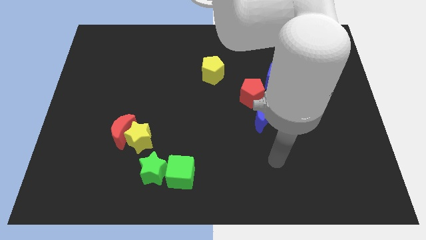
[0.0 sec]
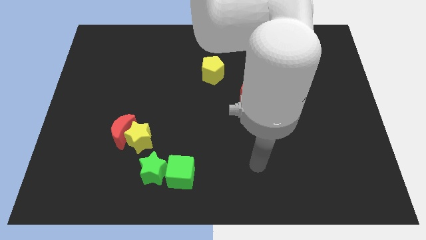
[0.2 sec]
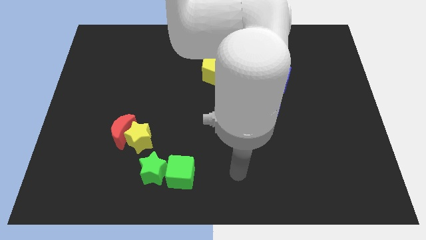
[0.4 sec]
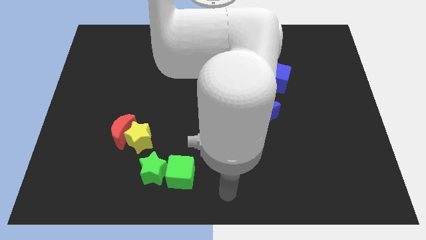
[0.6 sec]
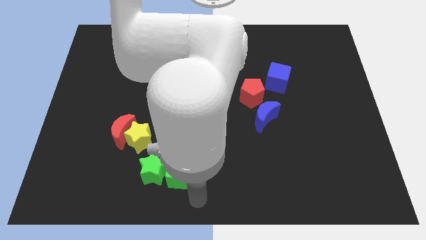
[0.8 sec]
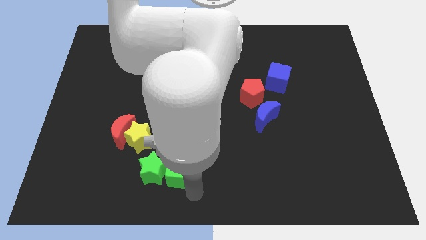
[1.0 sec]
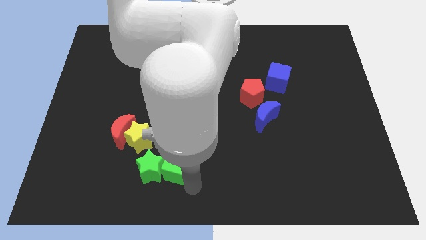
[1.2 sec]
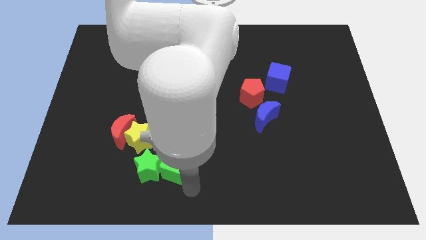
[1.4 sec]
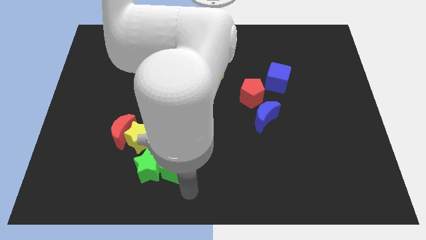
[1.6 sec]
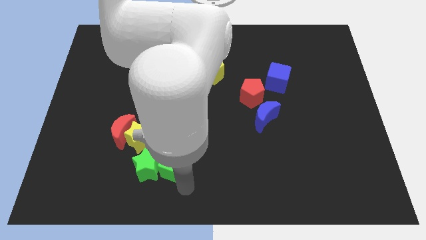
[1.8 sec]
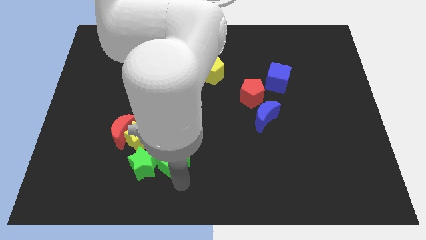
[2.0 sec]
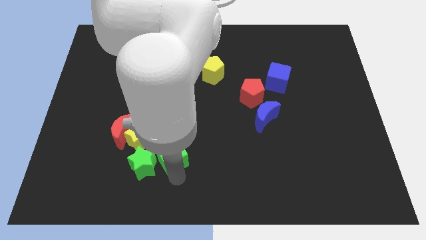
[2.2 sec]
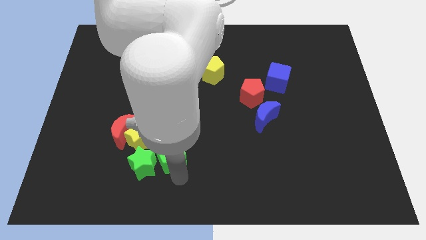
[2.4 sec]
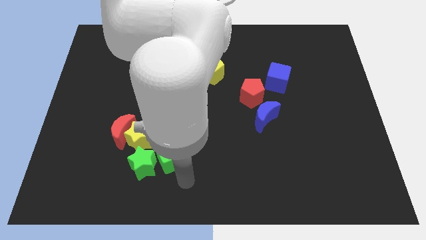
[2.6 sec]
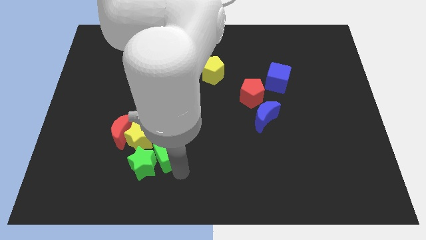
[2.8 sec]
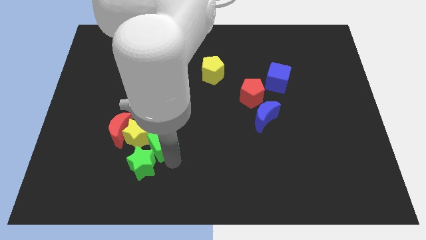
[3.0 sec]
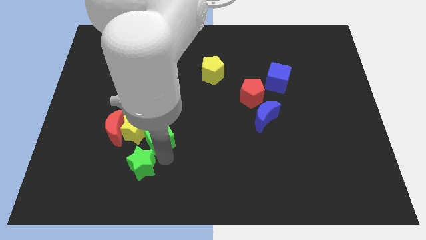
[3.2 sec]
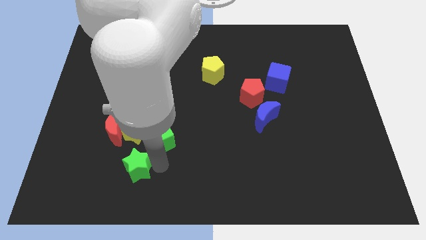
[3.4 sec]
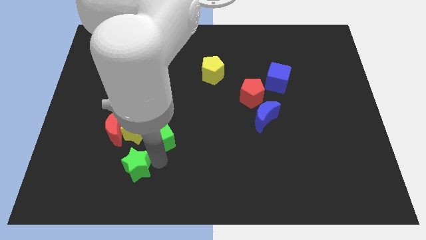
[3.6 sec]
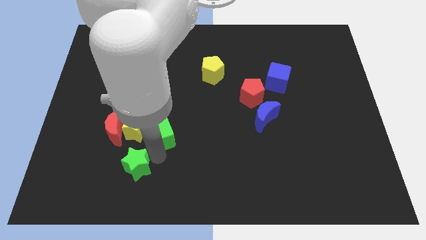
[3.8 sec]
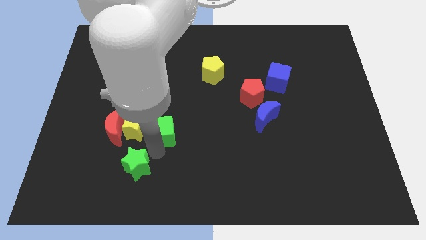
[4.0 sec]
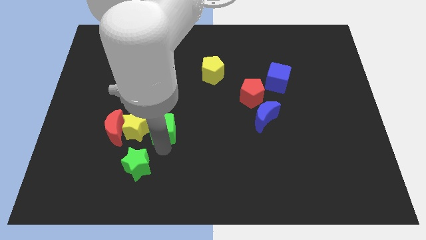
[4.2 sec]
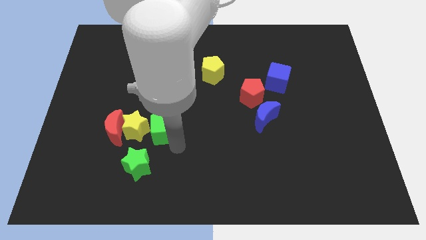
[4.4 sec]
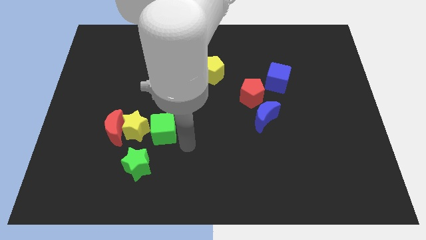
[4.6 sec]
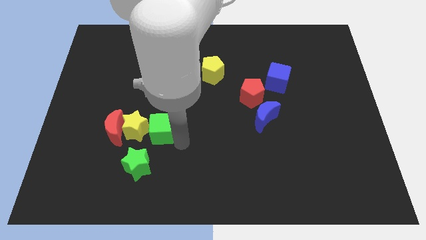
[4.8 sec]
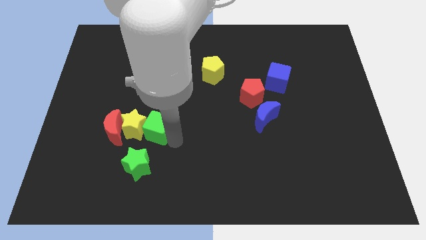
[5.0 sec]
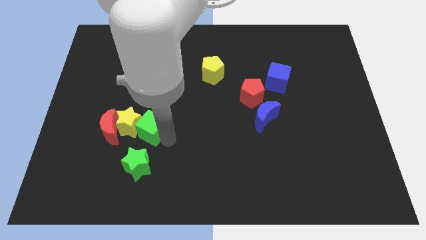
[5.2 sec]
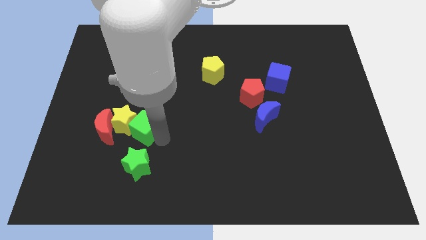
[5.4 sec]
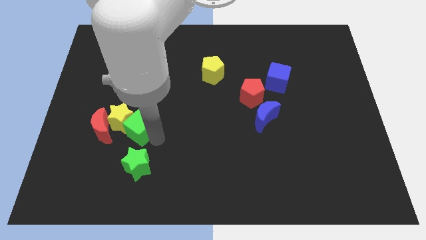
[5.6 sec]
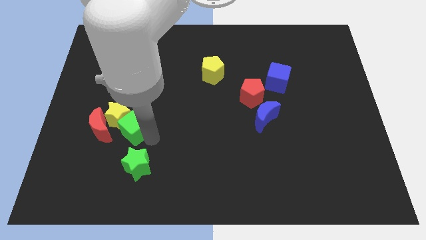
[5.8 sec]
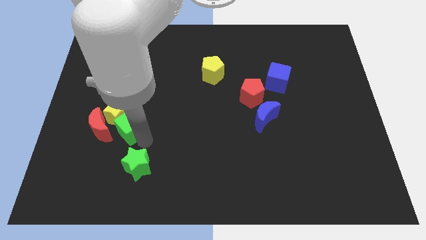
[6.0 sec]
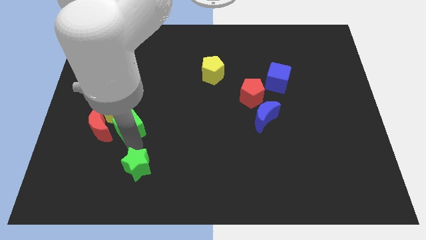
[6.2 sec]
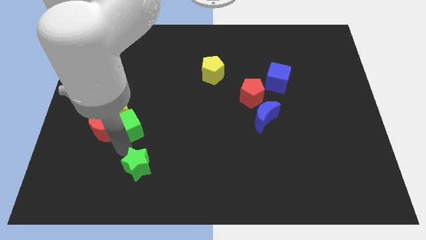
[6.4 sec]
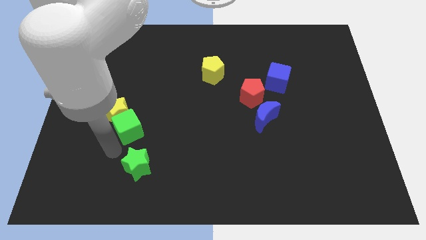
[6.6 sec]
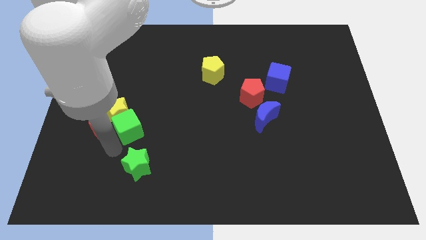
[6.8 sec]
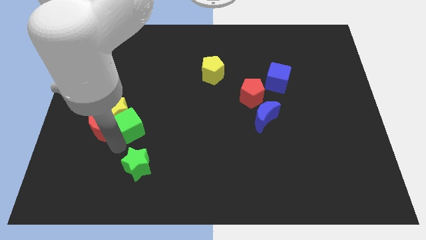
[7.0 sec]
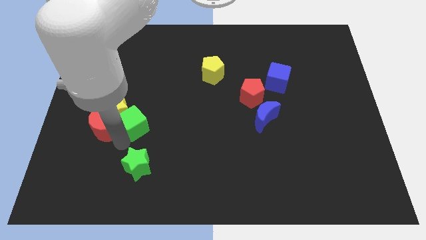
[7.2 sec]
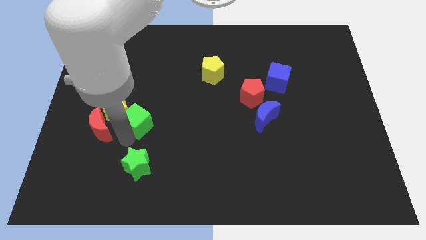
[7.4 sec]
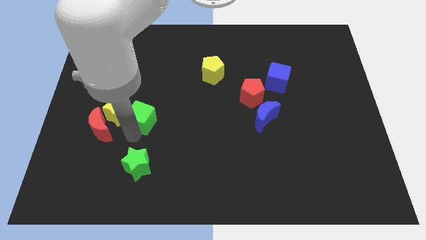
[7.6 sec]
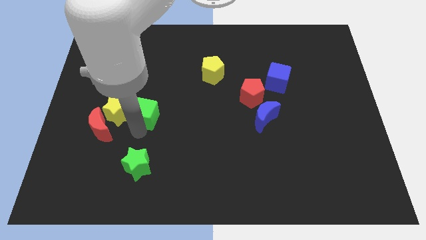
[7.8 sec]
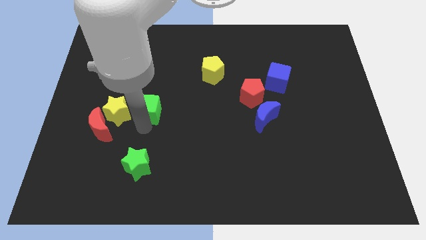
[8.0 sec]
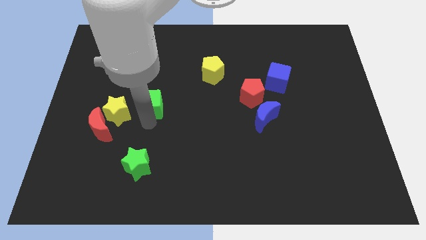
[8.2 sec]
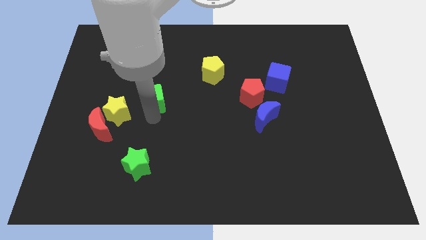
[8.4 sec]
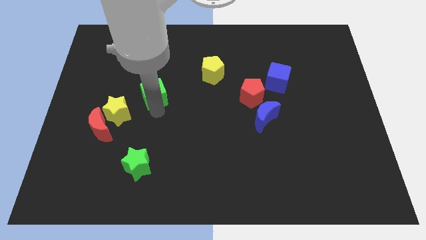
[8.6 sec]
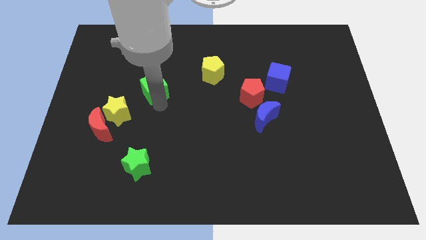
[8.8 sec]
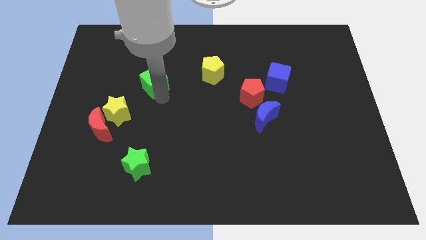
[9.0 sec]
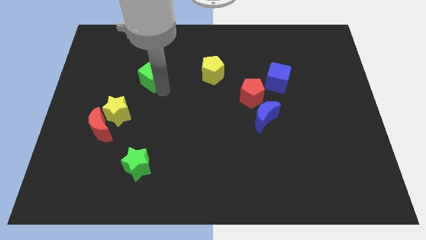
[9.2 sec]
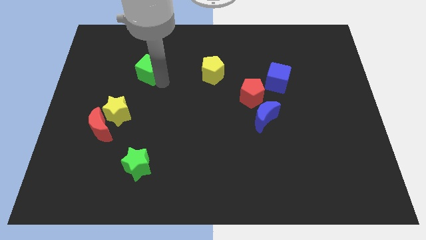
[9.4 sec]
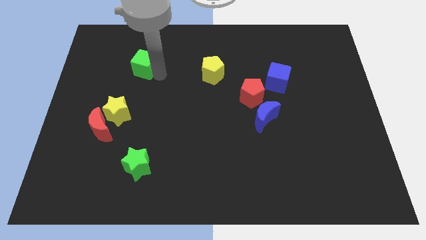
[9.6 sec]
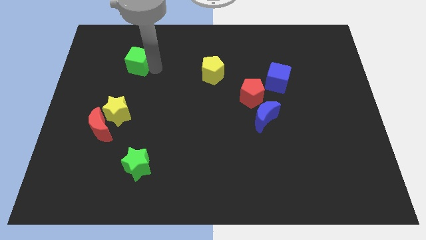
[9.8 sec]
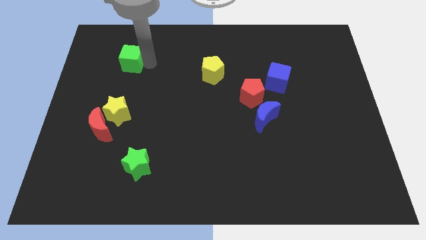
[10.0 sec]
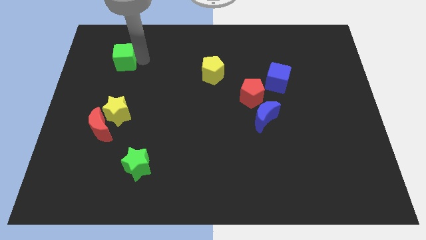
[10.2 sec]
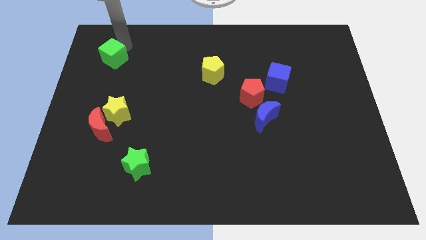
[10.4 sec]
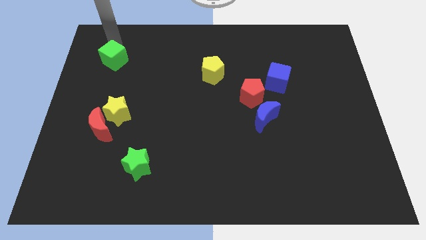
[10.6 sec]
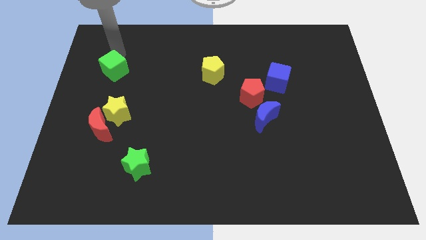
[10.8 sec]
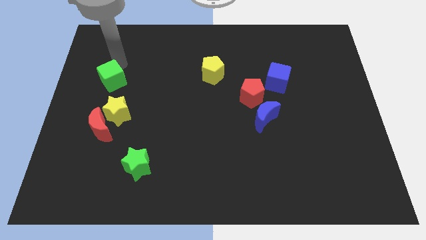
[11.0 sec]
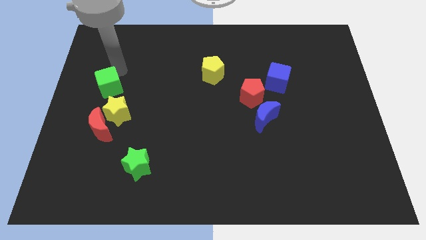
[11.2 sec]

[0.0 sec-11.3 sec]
slide the green cube to the center left

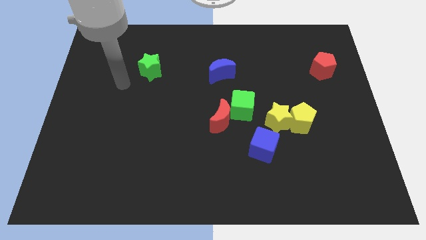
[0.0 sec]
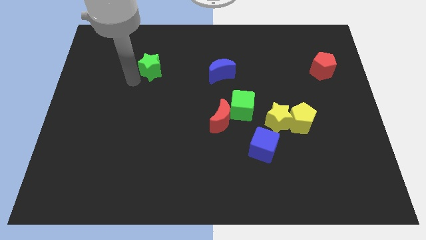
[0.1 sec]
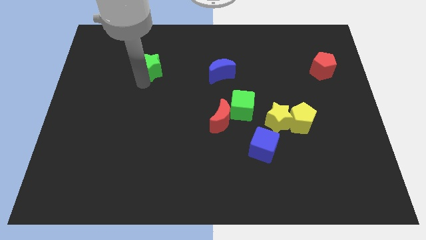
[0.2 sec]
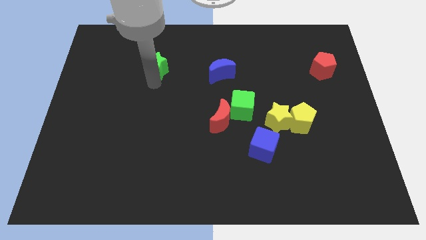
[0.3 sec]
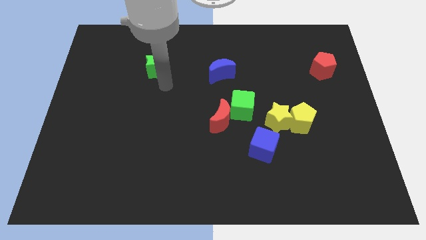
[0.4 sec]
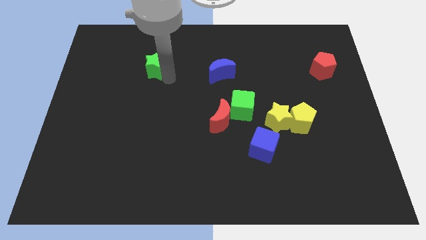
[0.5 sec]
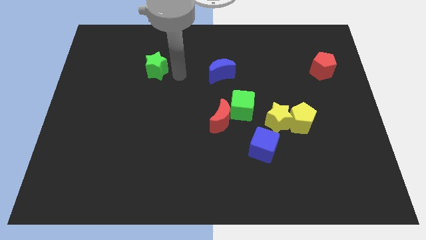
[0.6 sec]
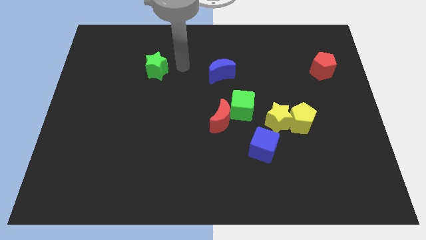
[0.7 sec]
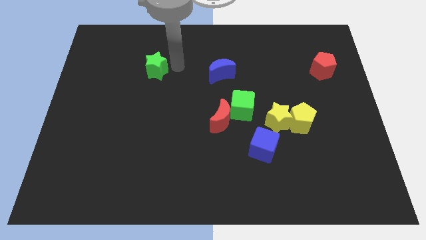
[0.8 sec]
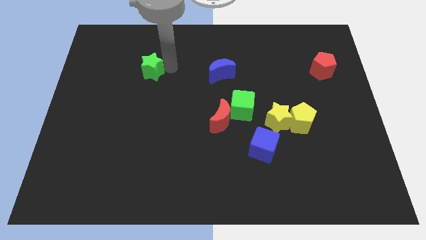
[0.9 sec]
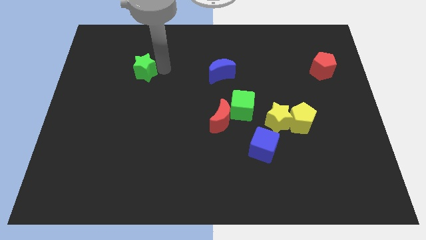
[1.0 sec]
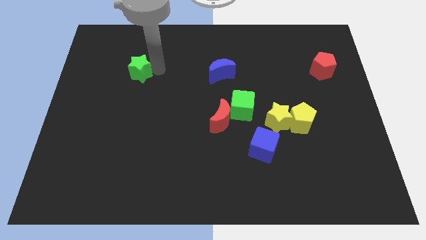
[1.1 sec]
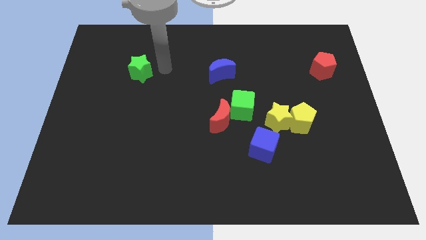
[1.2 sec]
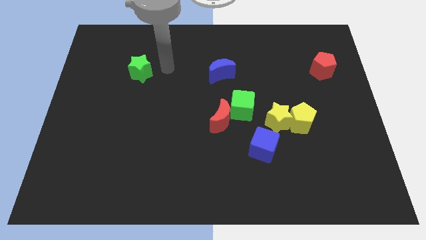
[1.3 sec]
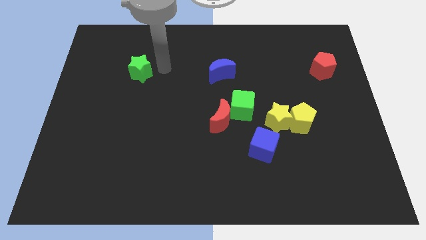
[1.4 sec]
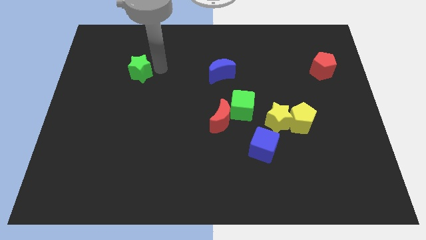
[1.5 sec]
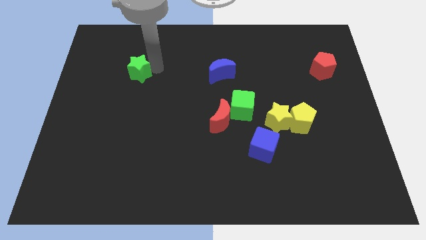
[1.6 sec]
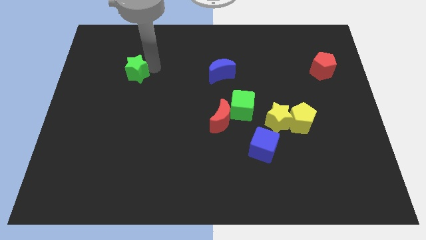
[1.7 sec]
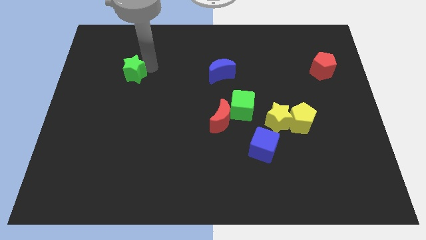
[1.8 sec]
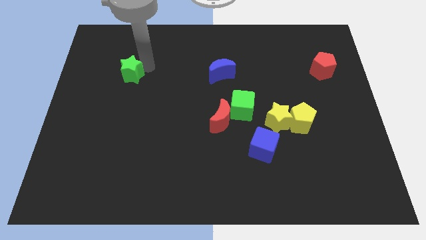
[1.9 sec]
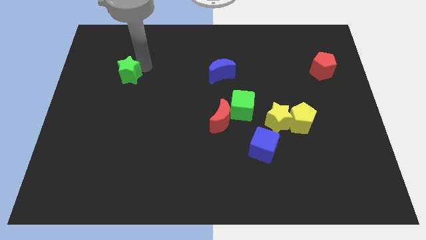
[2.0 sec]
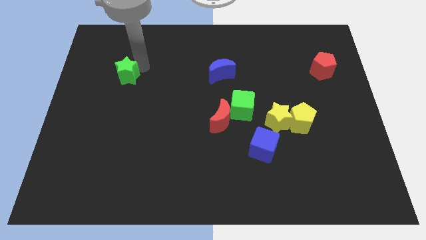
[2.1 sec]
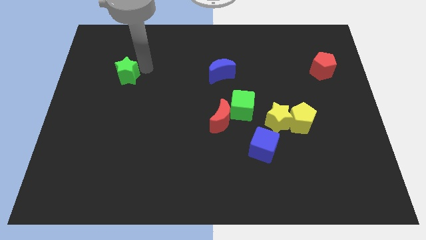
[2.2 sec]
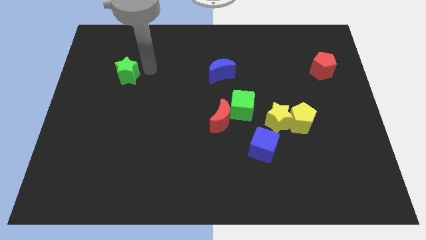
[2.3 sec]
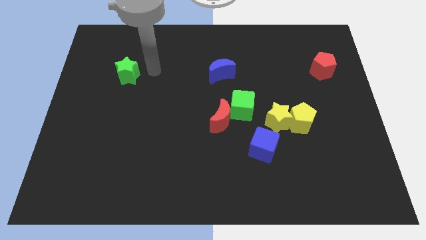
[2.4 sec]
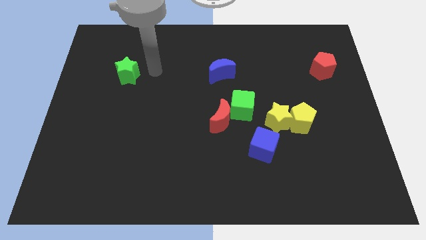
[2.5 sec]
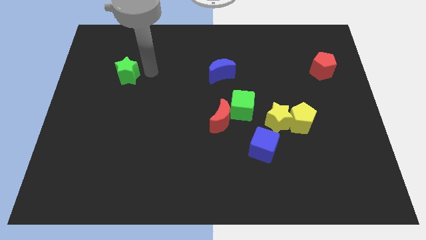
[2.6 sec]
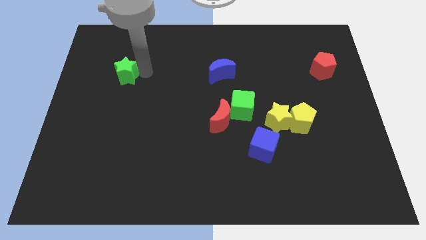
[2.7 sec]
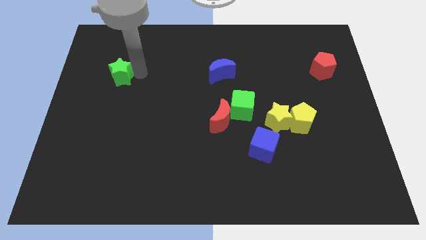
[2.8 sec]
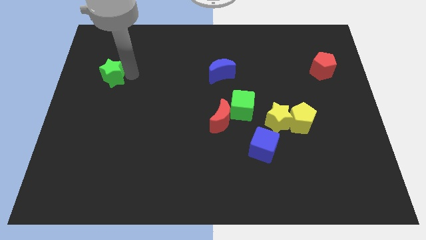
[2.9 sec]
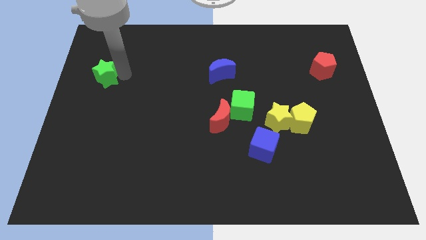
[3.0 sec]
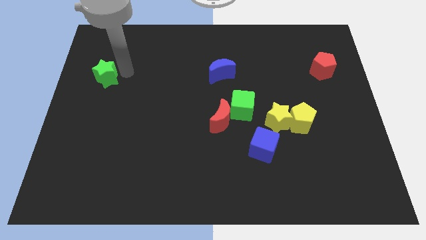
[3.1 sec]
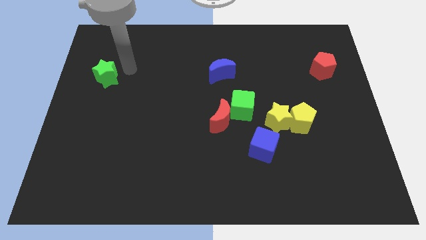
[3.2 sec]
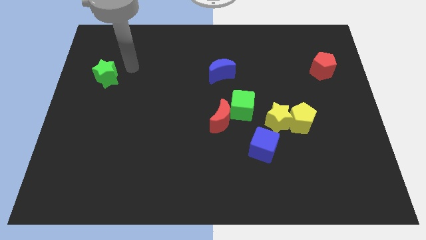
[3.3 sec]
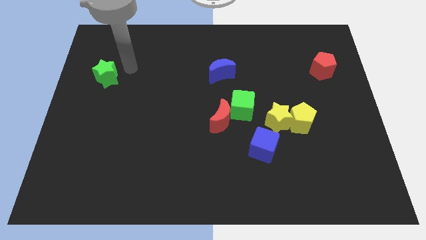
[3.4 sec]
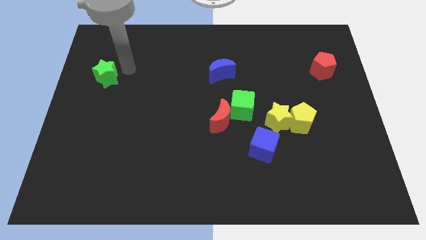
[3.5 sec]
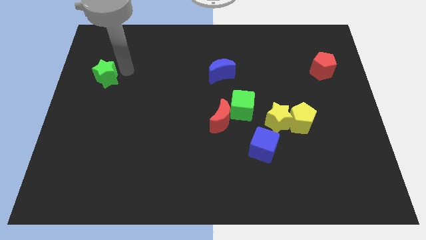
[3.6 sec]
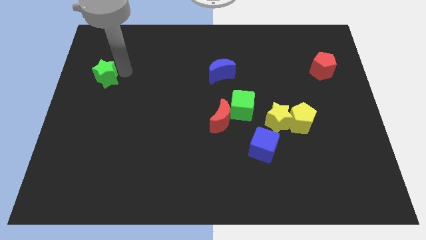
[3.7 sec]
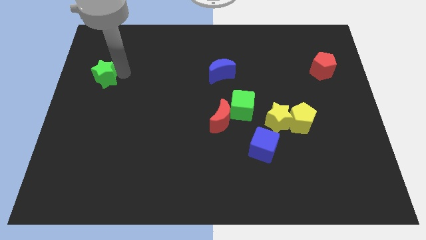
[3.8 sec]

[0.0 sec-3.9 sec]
put the green star to the center left
